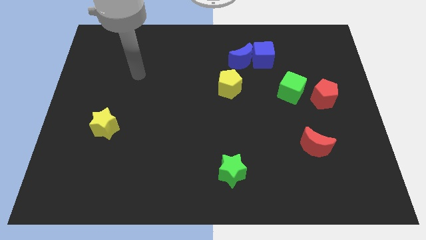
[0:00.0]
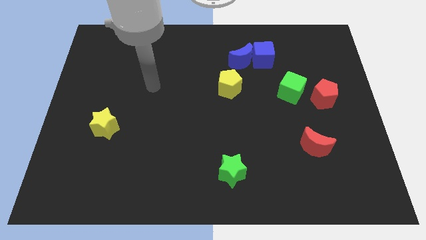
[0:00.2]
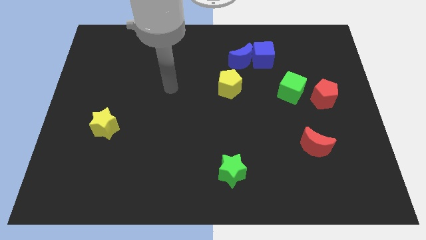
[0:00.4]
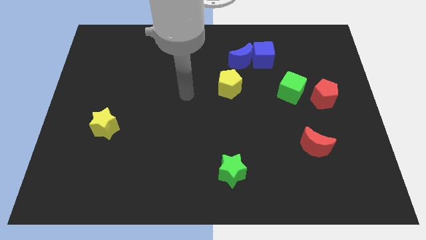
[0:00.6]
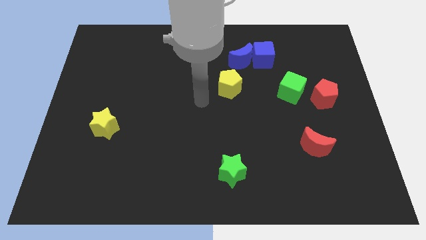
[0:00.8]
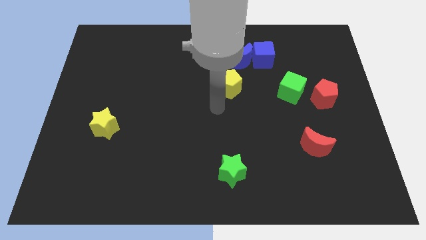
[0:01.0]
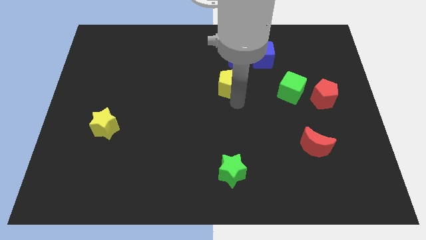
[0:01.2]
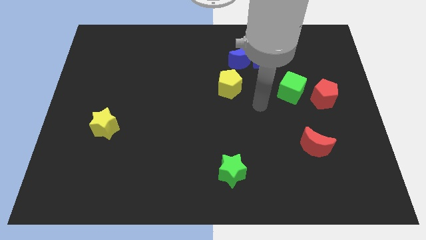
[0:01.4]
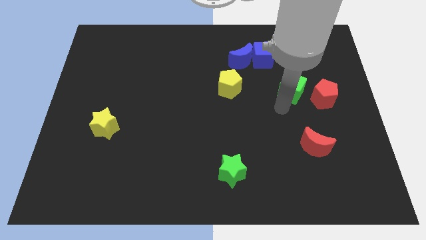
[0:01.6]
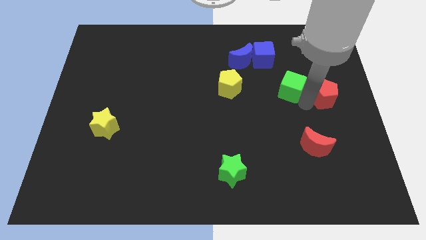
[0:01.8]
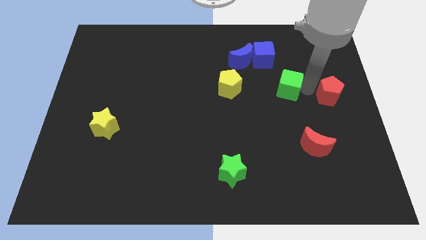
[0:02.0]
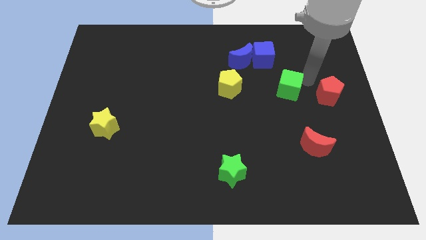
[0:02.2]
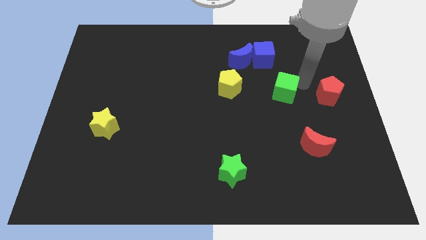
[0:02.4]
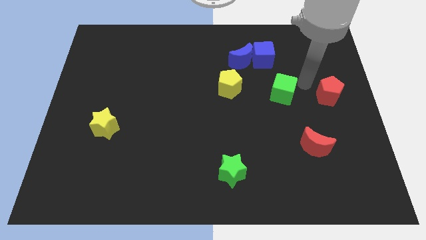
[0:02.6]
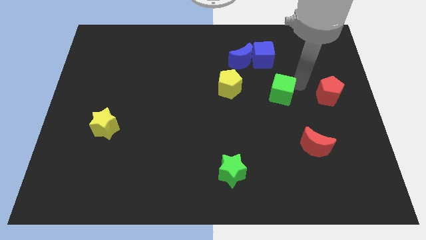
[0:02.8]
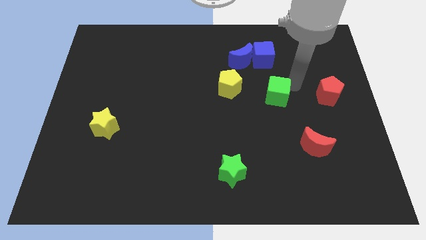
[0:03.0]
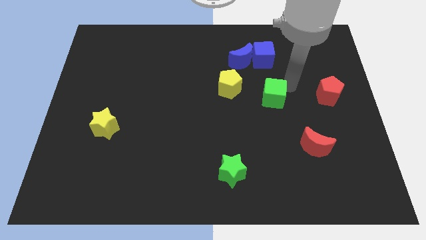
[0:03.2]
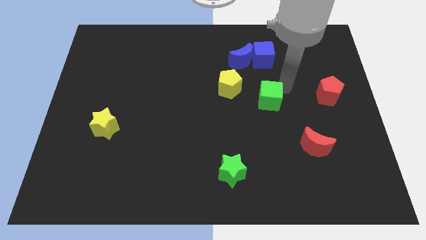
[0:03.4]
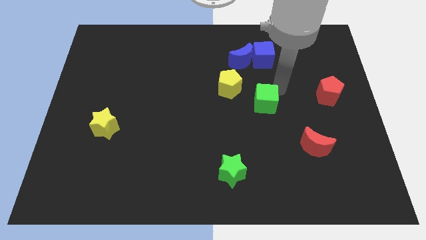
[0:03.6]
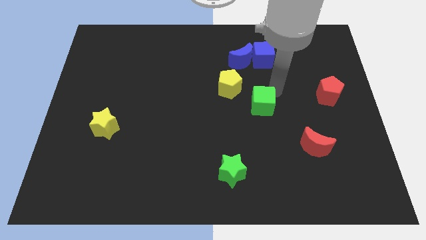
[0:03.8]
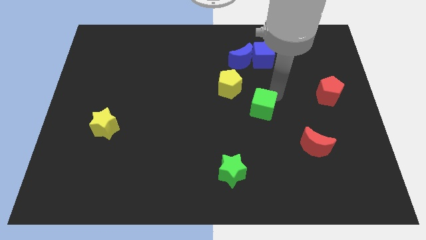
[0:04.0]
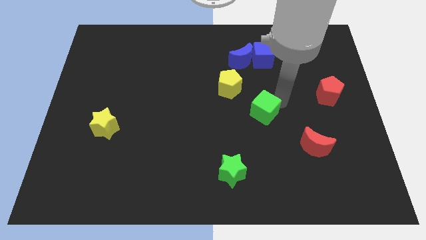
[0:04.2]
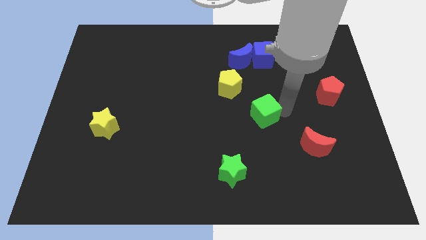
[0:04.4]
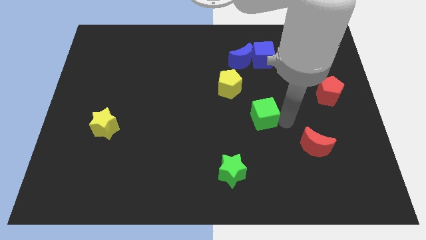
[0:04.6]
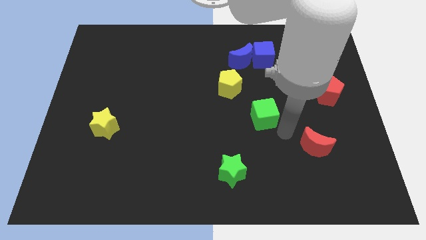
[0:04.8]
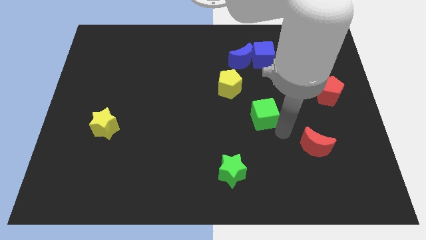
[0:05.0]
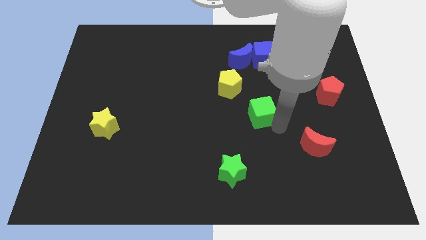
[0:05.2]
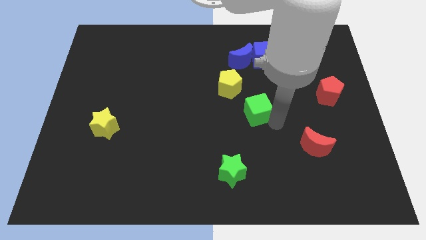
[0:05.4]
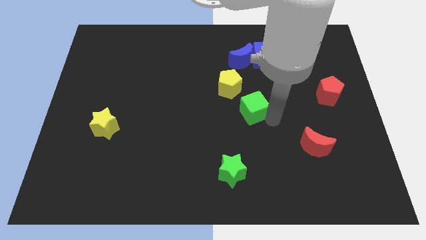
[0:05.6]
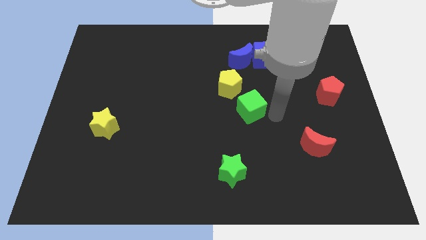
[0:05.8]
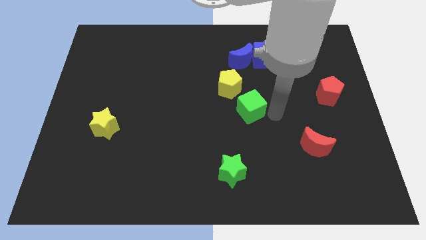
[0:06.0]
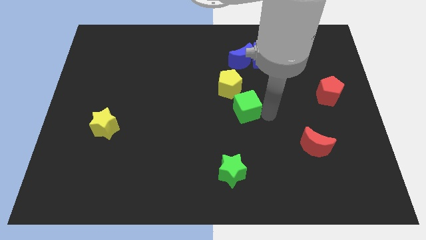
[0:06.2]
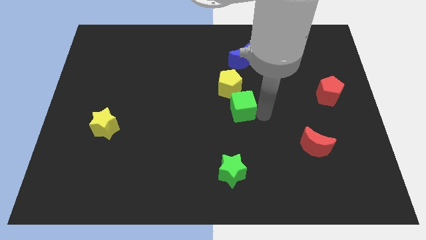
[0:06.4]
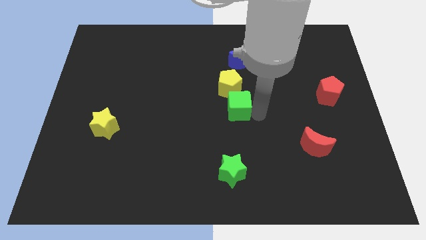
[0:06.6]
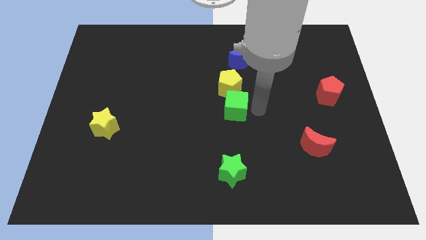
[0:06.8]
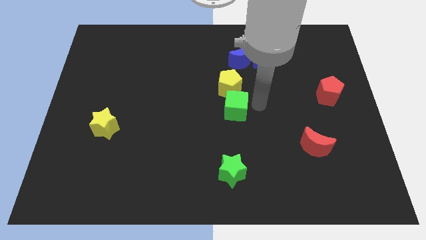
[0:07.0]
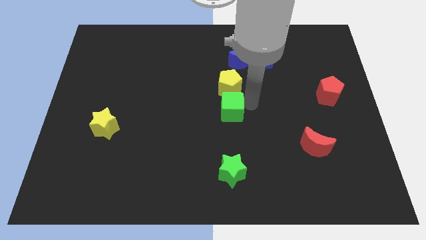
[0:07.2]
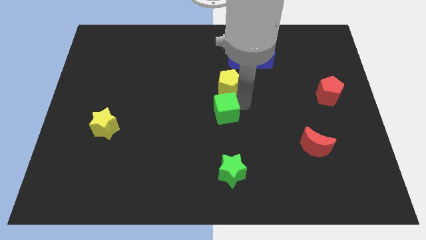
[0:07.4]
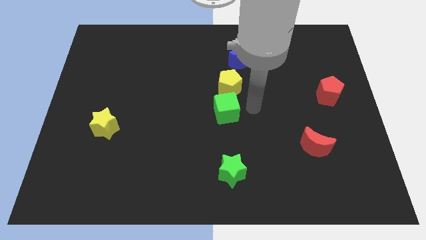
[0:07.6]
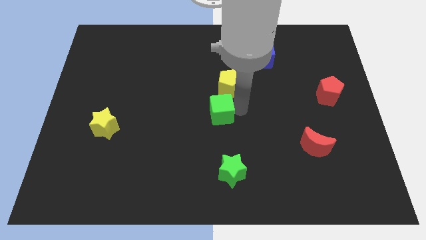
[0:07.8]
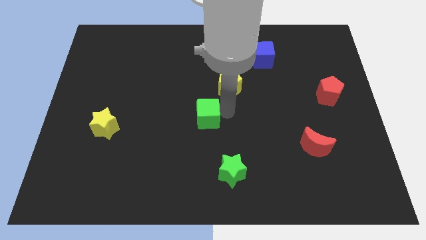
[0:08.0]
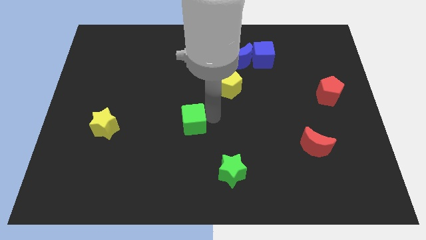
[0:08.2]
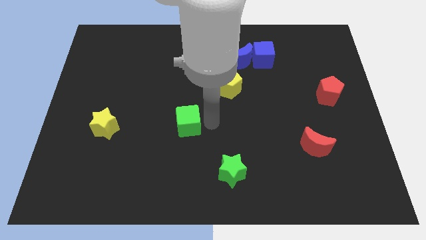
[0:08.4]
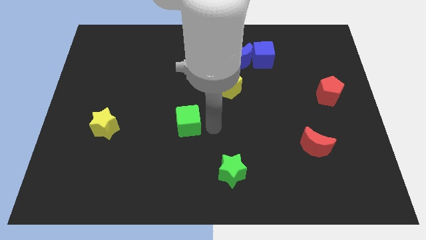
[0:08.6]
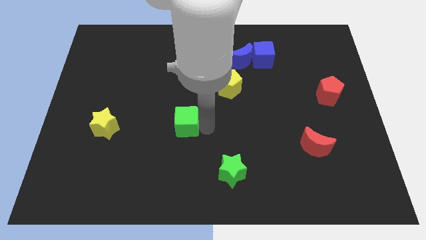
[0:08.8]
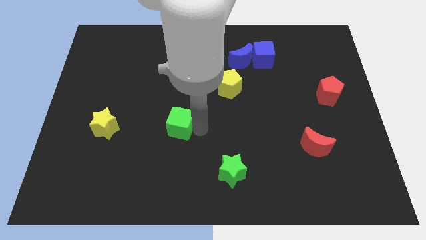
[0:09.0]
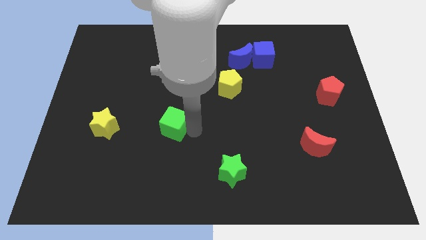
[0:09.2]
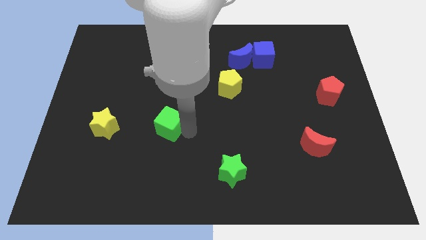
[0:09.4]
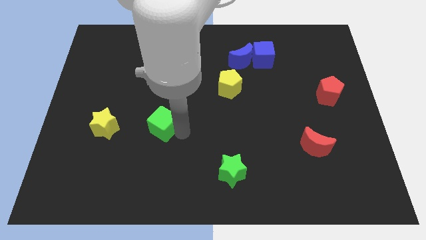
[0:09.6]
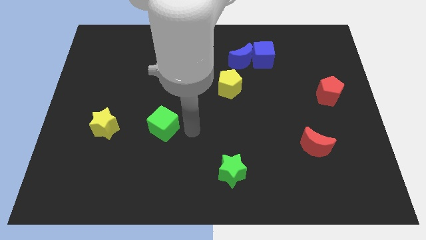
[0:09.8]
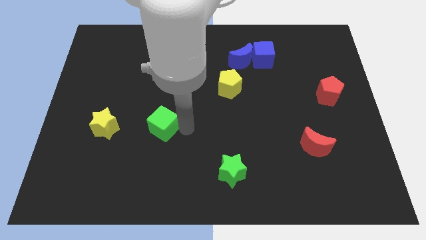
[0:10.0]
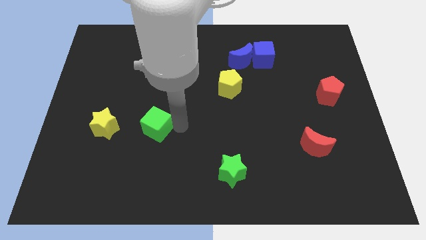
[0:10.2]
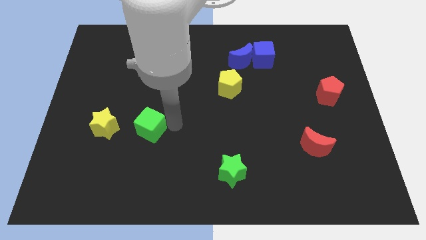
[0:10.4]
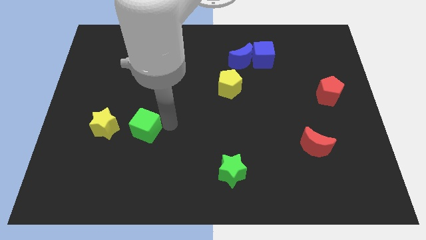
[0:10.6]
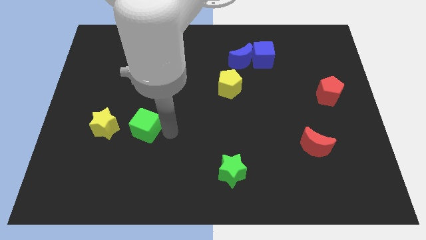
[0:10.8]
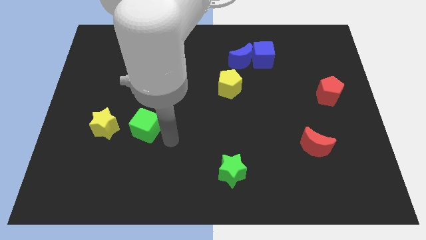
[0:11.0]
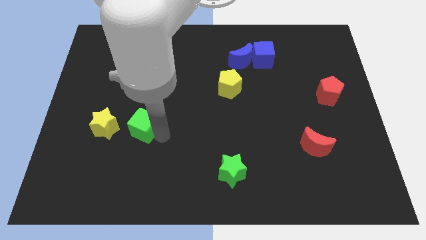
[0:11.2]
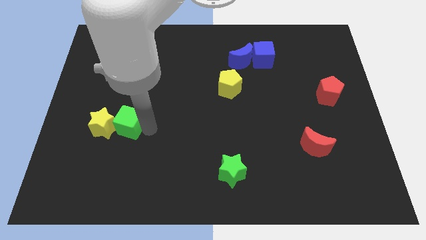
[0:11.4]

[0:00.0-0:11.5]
push the green cube towards the yellow star

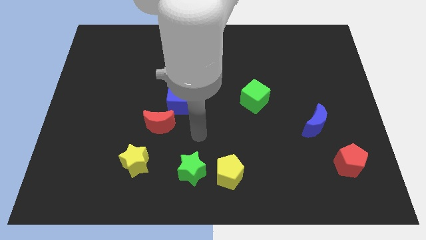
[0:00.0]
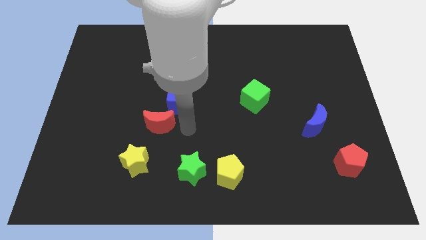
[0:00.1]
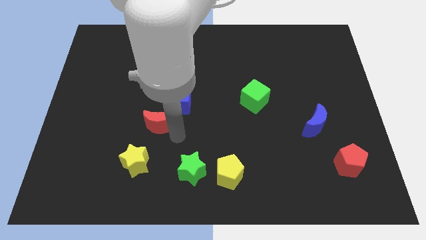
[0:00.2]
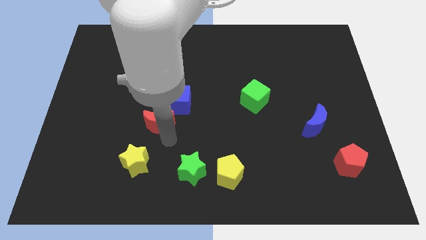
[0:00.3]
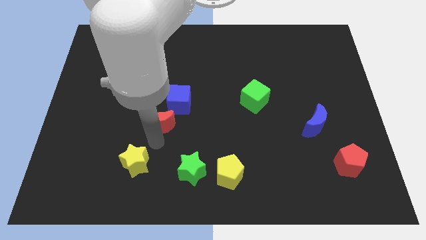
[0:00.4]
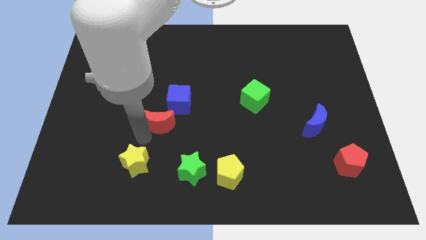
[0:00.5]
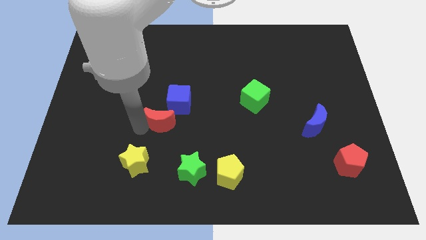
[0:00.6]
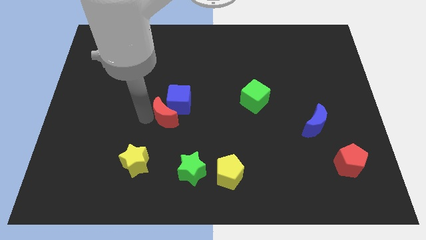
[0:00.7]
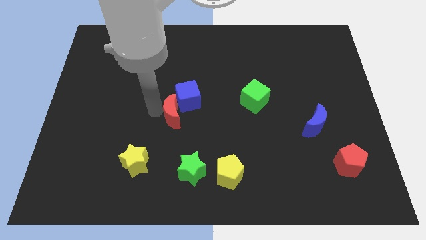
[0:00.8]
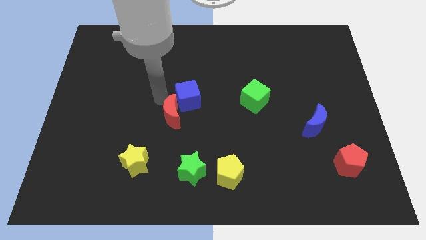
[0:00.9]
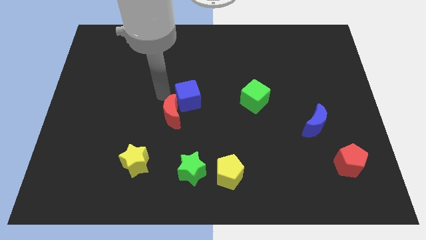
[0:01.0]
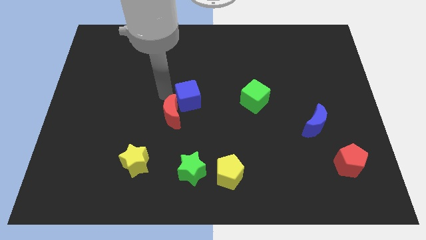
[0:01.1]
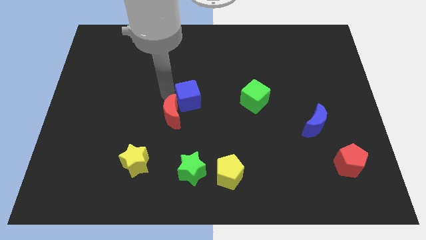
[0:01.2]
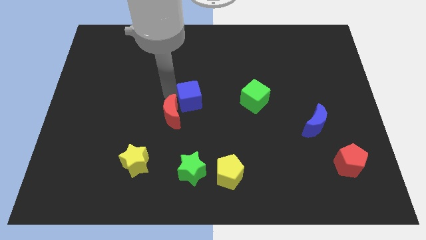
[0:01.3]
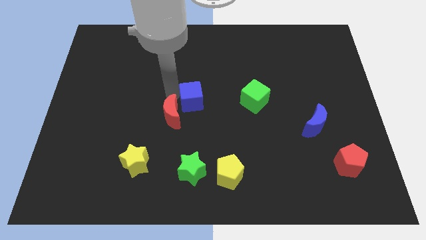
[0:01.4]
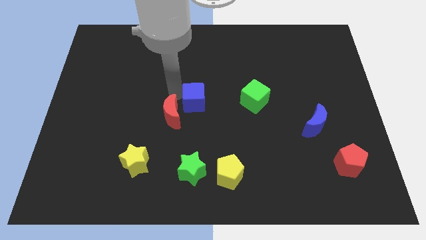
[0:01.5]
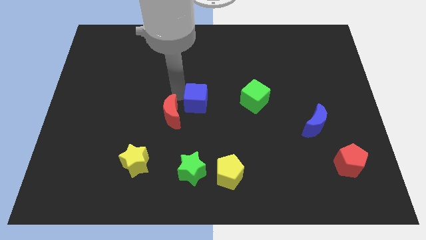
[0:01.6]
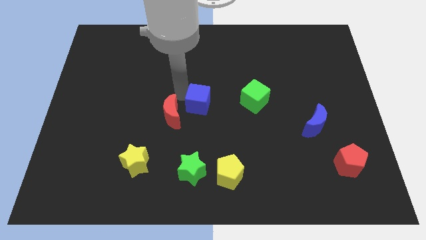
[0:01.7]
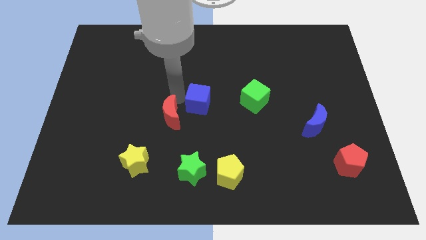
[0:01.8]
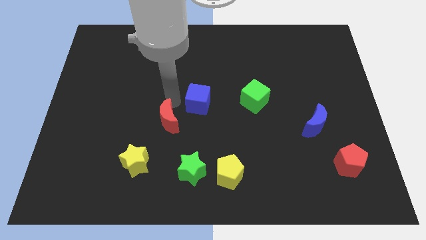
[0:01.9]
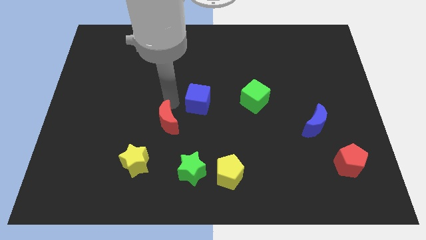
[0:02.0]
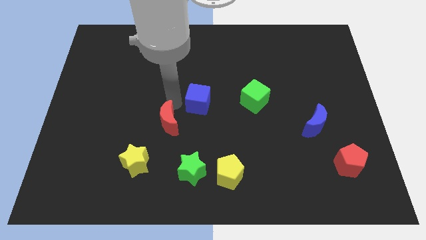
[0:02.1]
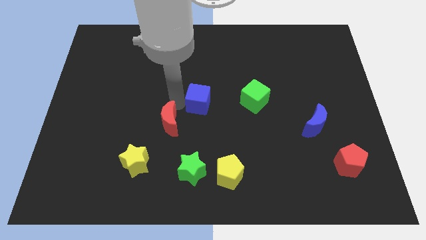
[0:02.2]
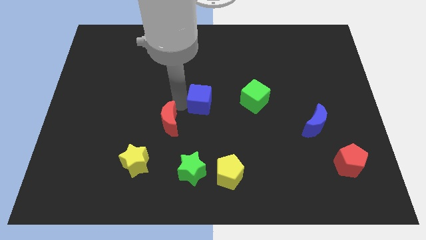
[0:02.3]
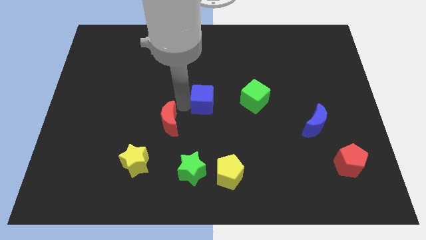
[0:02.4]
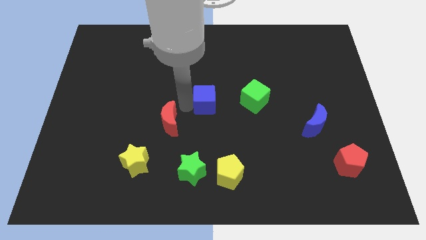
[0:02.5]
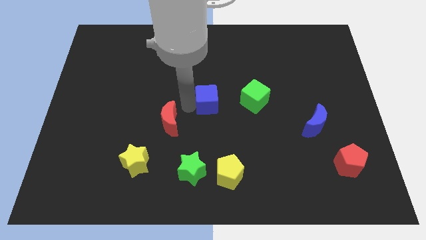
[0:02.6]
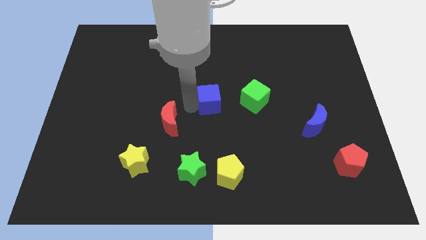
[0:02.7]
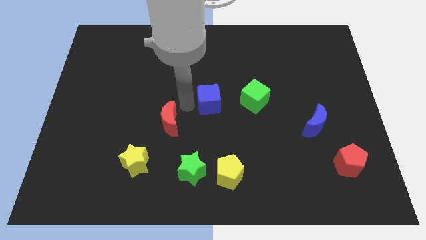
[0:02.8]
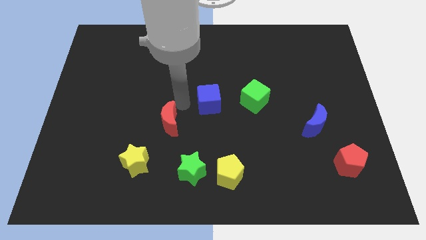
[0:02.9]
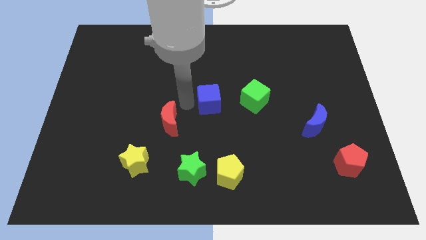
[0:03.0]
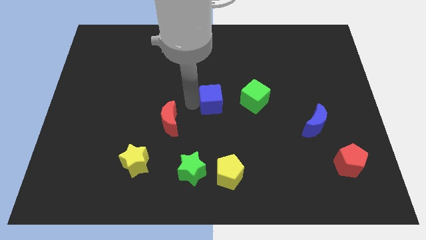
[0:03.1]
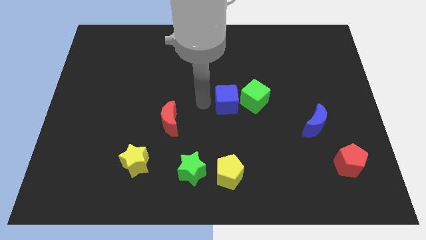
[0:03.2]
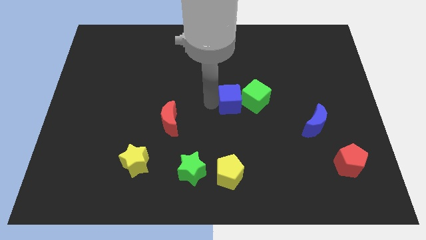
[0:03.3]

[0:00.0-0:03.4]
push the blue cube towards the green cube
